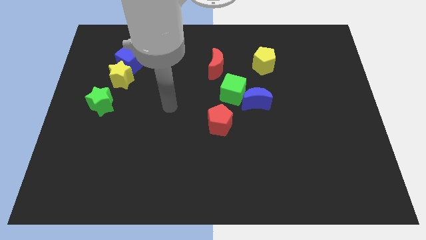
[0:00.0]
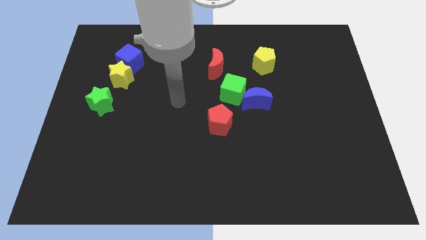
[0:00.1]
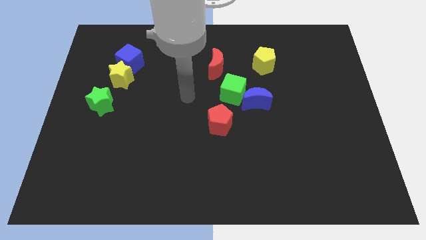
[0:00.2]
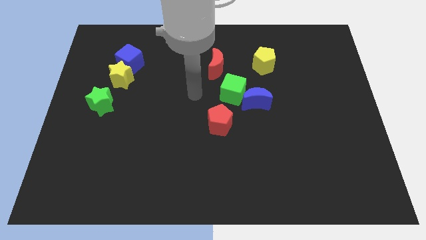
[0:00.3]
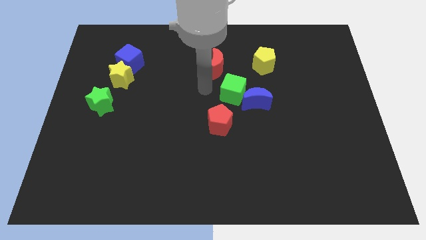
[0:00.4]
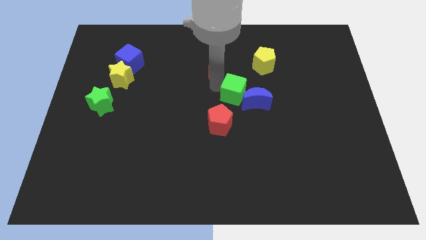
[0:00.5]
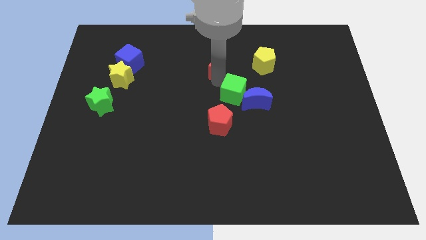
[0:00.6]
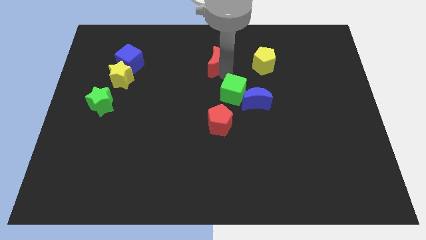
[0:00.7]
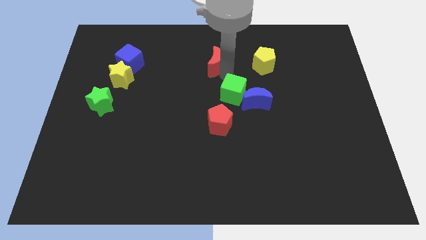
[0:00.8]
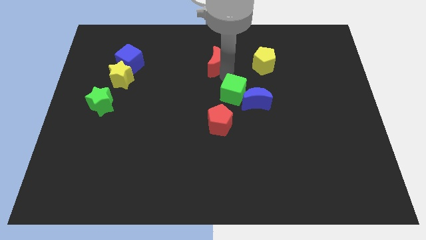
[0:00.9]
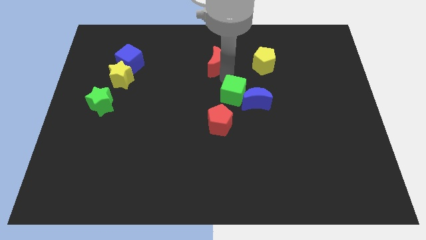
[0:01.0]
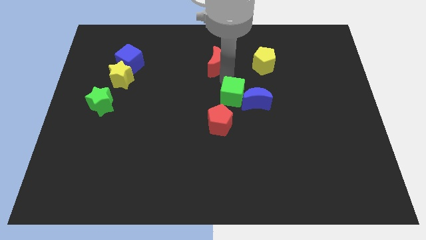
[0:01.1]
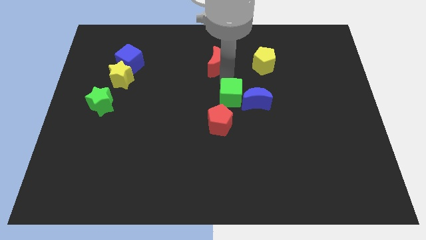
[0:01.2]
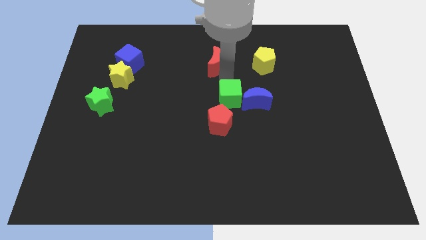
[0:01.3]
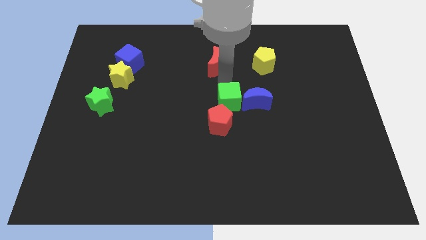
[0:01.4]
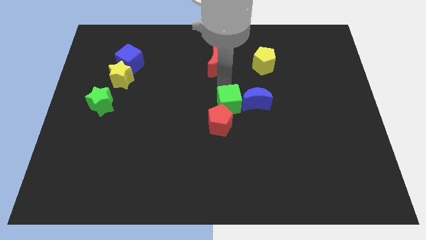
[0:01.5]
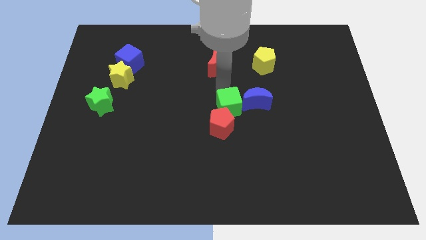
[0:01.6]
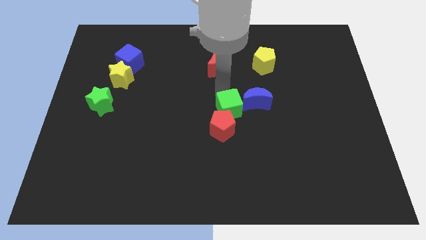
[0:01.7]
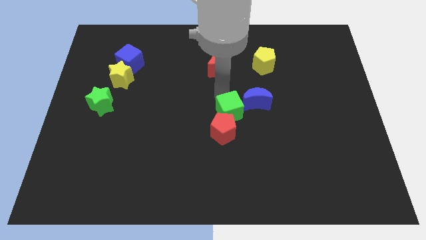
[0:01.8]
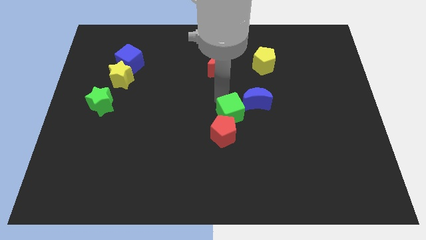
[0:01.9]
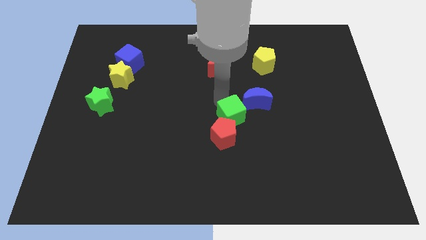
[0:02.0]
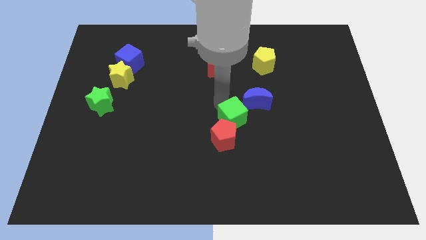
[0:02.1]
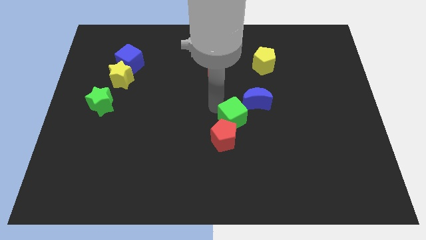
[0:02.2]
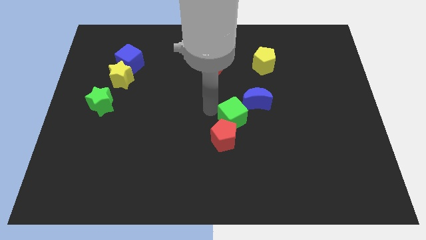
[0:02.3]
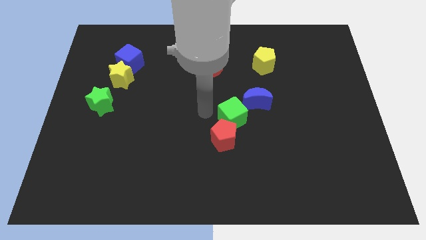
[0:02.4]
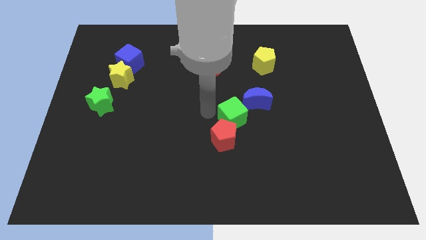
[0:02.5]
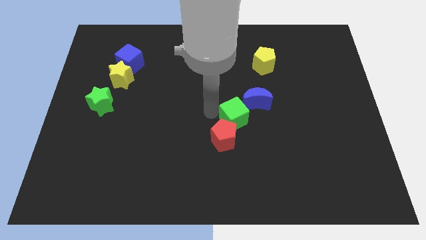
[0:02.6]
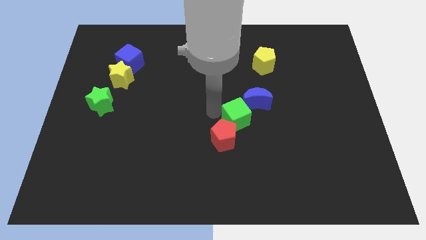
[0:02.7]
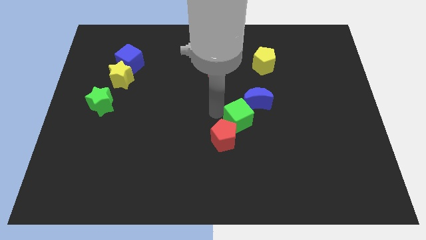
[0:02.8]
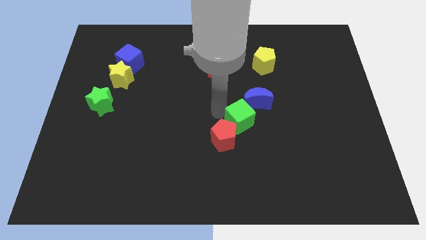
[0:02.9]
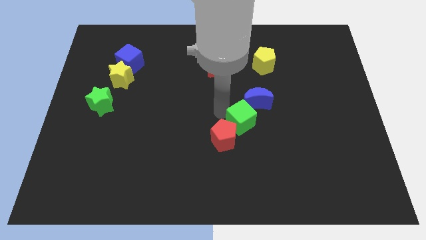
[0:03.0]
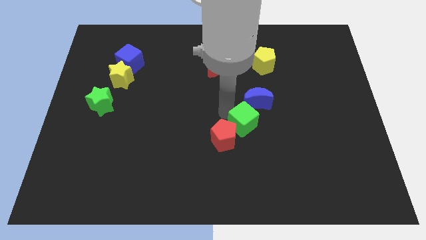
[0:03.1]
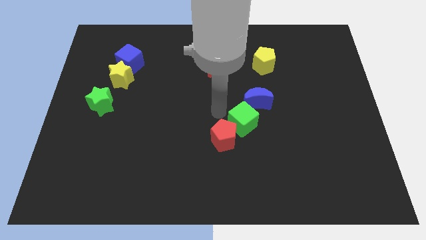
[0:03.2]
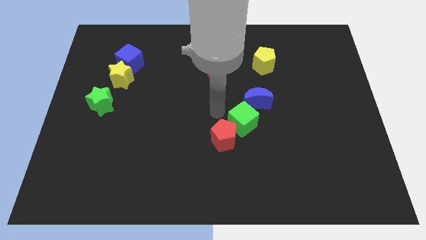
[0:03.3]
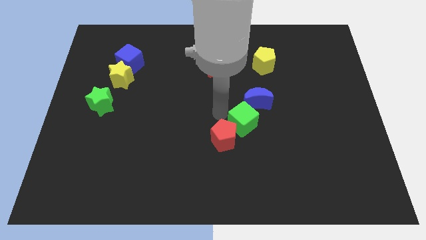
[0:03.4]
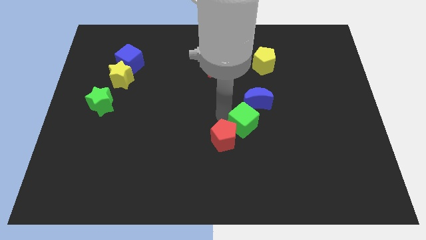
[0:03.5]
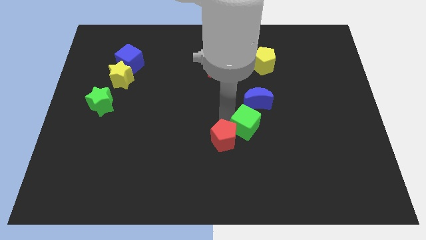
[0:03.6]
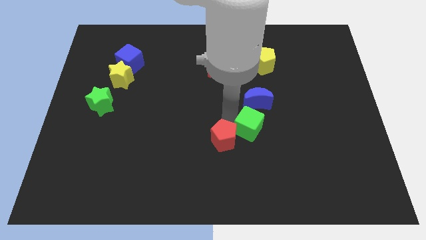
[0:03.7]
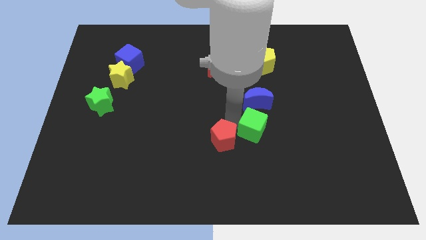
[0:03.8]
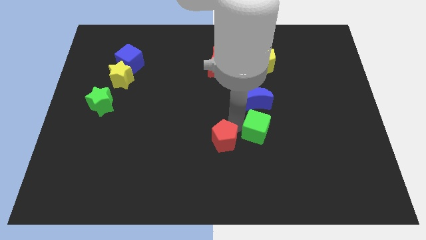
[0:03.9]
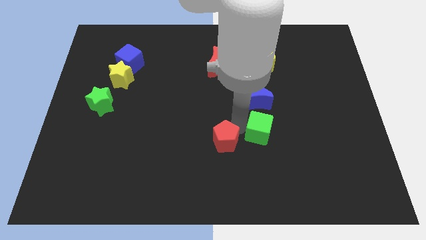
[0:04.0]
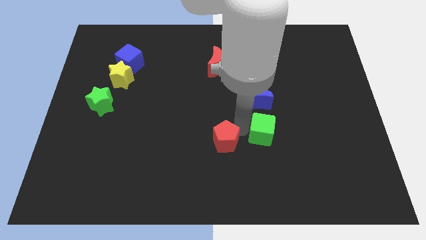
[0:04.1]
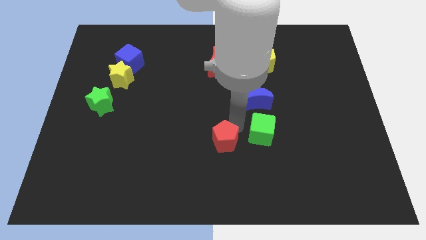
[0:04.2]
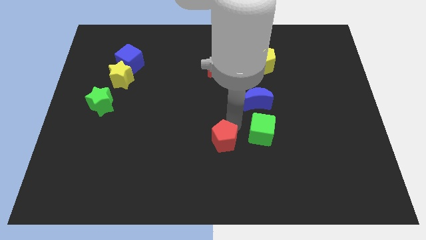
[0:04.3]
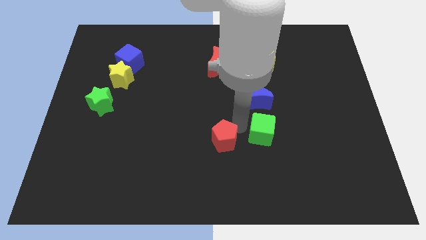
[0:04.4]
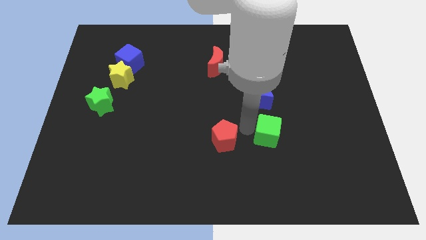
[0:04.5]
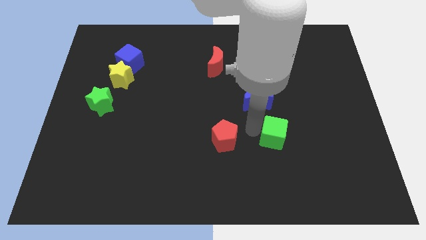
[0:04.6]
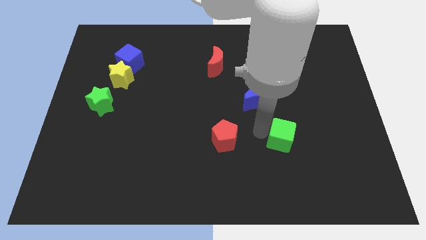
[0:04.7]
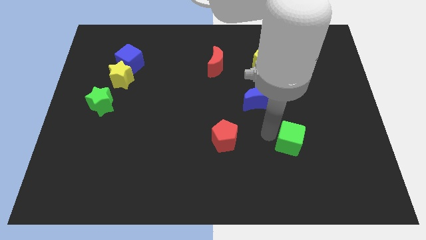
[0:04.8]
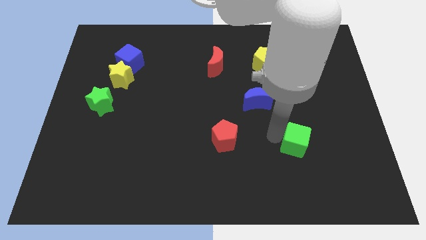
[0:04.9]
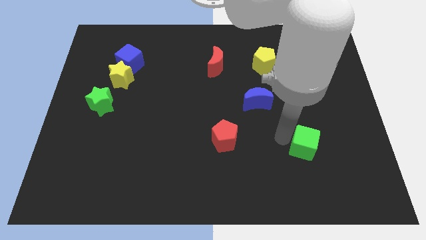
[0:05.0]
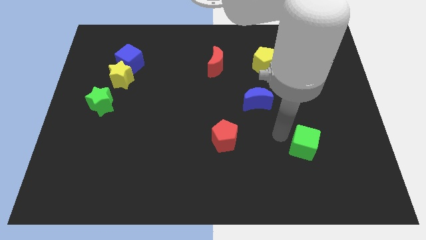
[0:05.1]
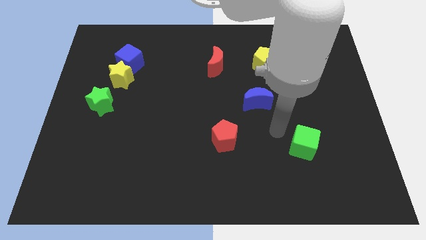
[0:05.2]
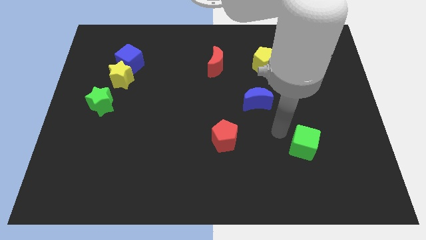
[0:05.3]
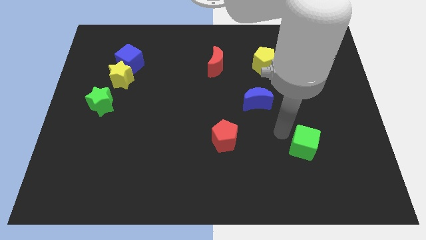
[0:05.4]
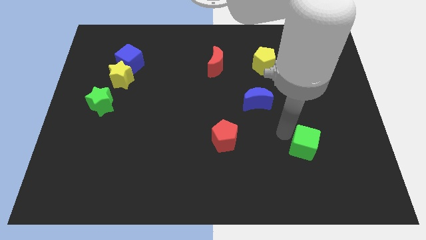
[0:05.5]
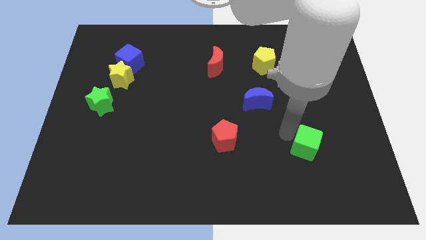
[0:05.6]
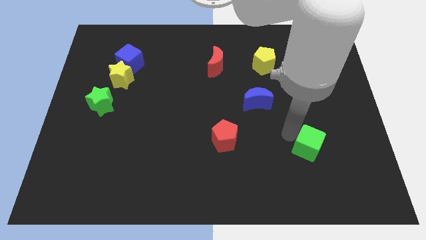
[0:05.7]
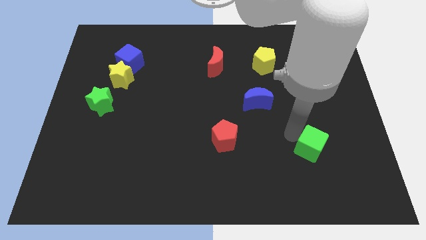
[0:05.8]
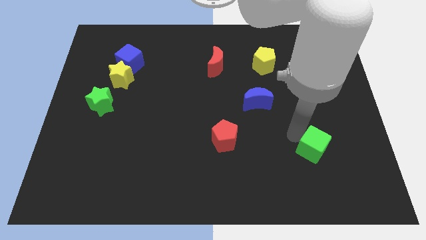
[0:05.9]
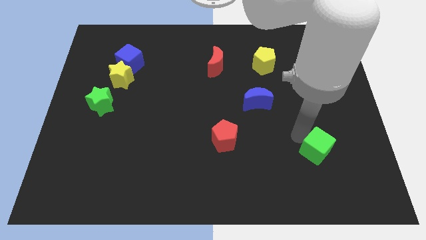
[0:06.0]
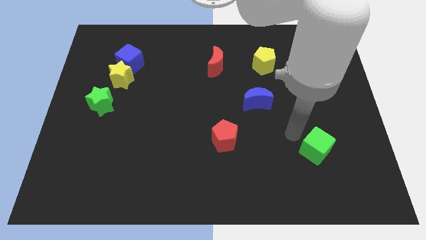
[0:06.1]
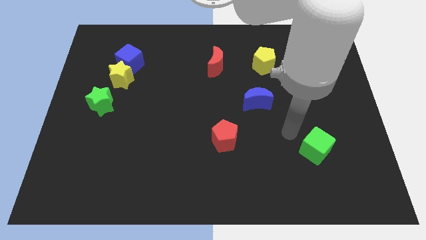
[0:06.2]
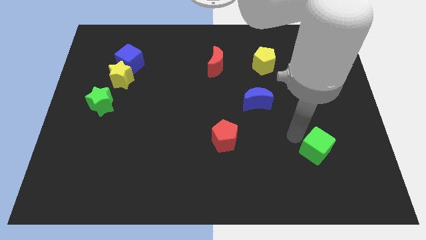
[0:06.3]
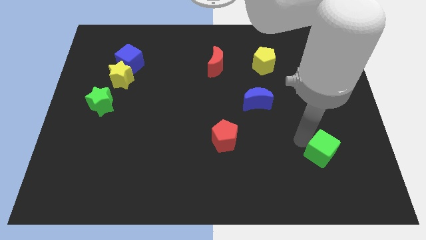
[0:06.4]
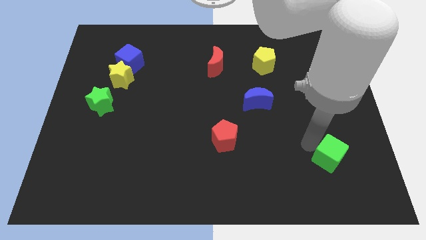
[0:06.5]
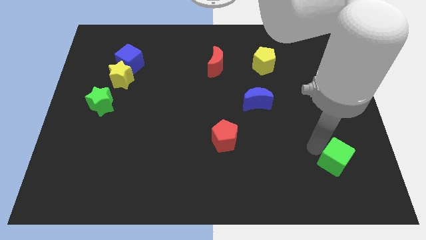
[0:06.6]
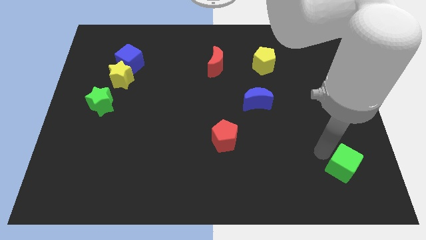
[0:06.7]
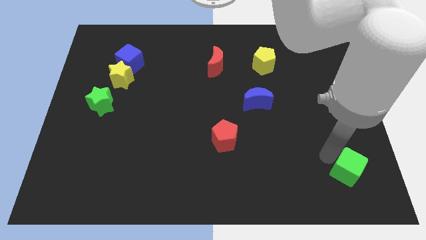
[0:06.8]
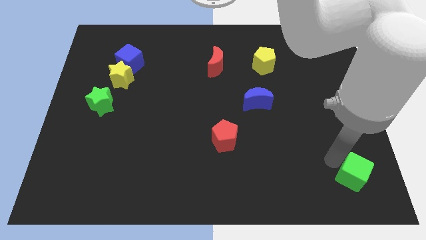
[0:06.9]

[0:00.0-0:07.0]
slide the green cube to the bottom right of the board
